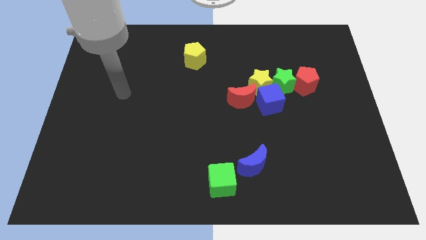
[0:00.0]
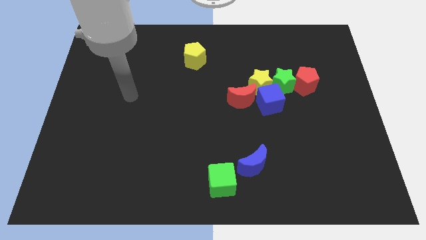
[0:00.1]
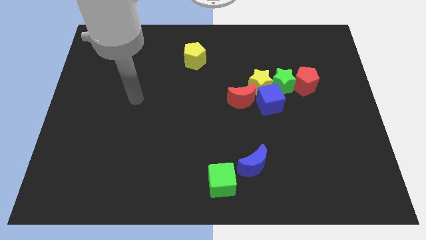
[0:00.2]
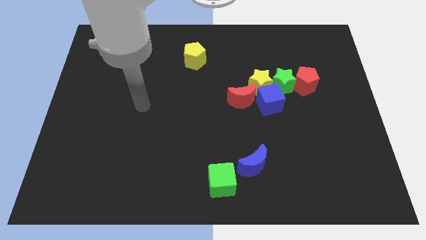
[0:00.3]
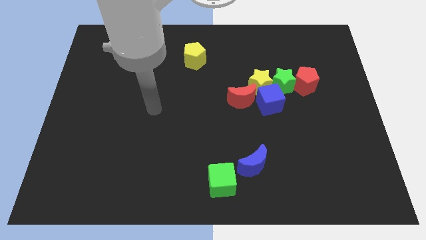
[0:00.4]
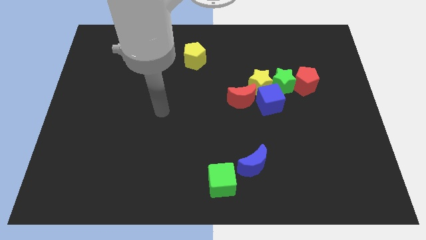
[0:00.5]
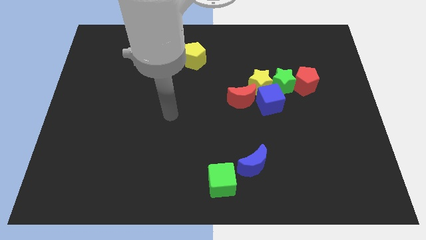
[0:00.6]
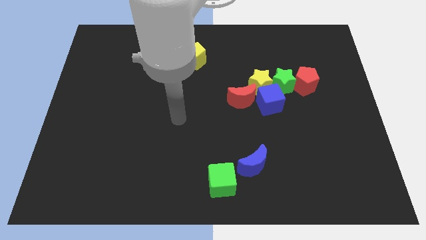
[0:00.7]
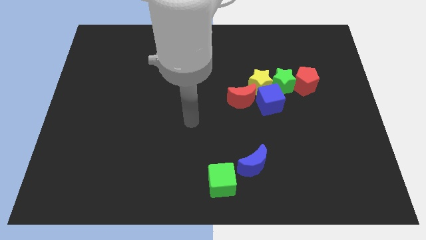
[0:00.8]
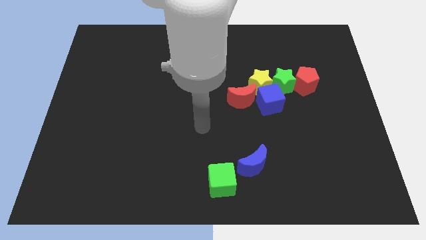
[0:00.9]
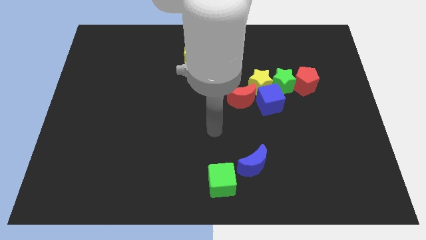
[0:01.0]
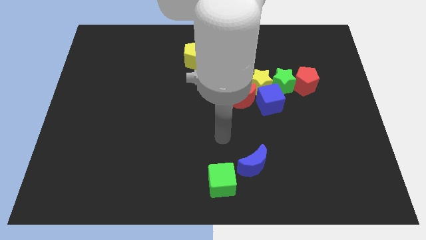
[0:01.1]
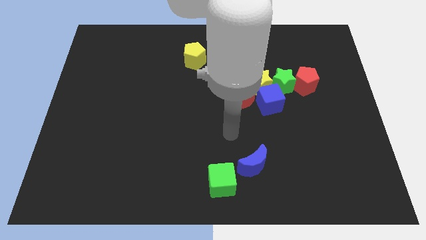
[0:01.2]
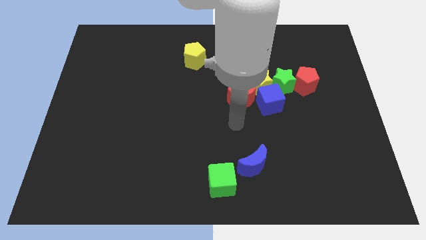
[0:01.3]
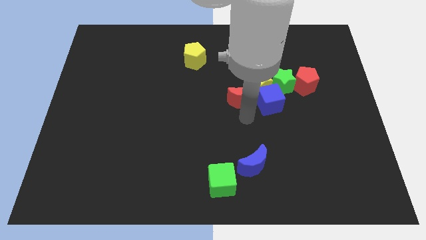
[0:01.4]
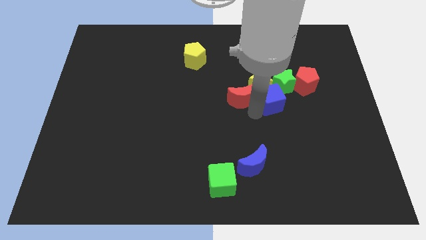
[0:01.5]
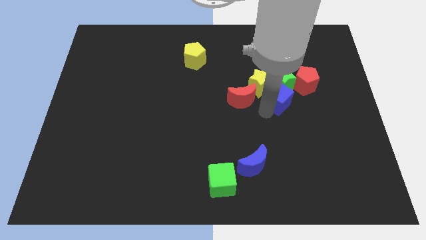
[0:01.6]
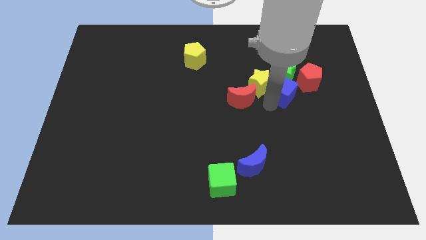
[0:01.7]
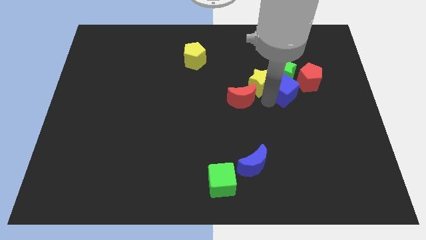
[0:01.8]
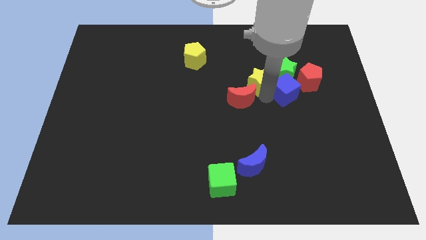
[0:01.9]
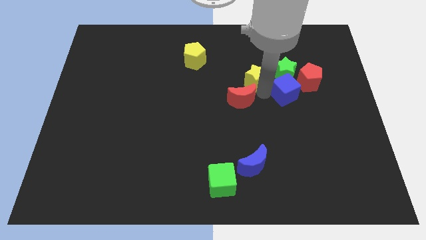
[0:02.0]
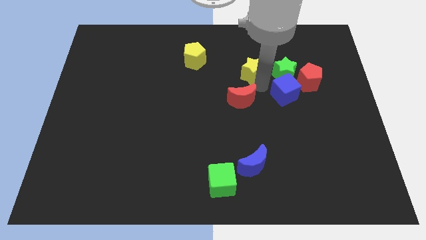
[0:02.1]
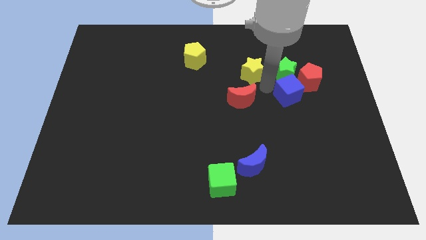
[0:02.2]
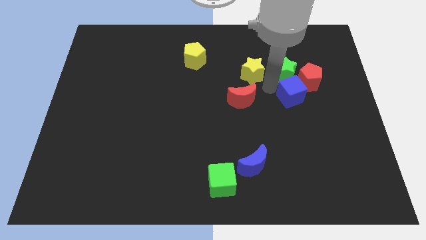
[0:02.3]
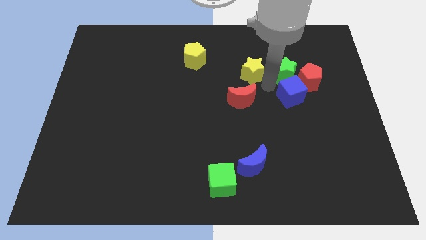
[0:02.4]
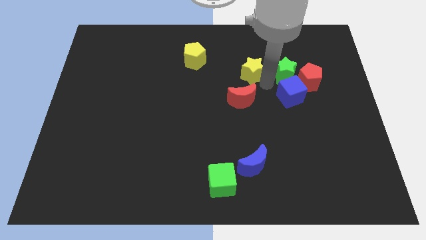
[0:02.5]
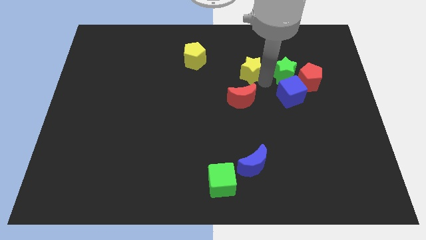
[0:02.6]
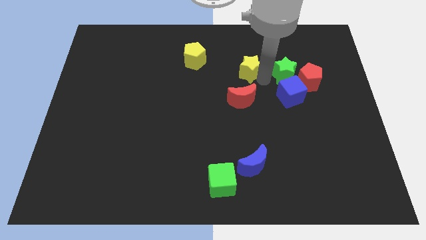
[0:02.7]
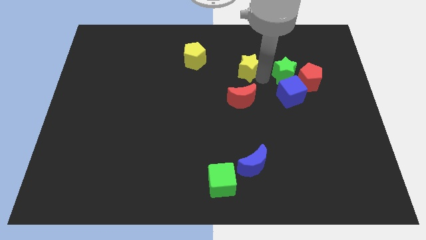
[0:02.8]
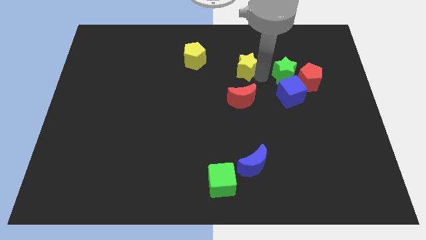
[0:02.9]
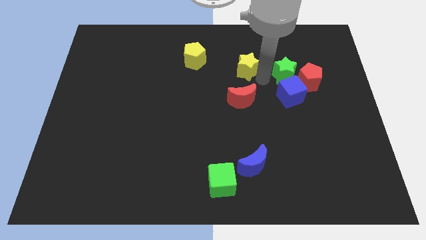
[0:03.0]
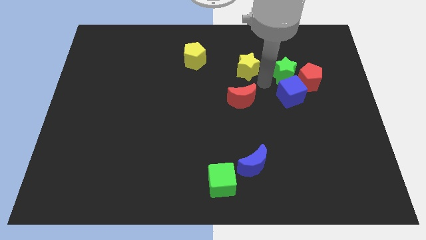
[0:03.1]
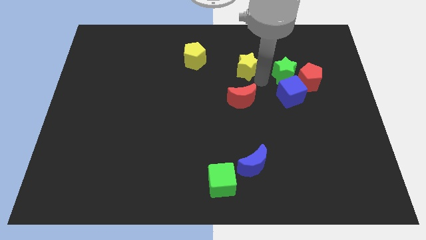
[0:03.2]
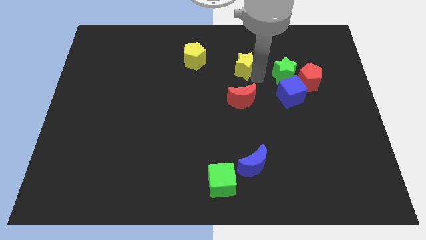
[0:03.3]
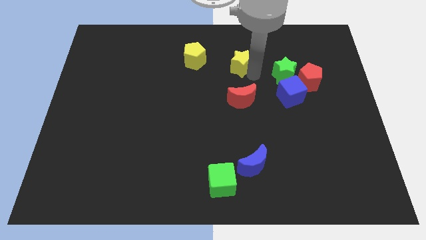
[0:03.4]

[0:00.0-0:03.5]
move the yellow star away from the green star, blue cube, and red moon

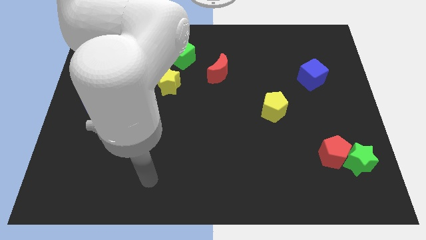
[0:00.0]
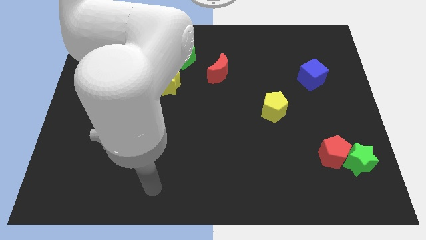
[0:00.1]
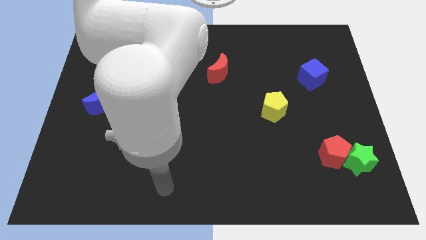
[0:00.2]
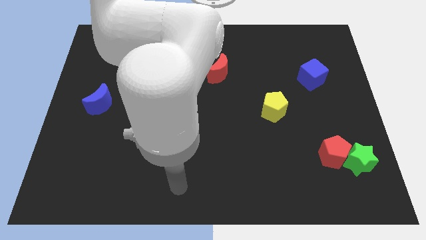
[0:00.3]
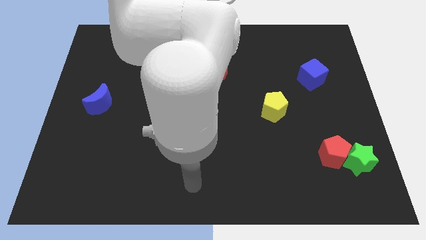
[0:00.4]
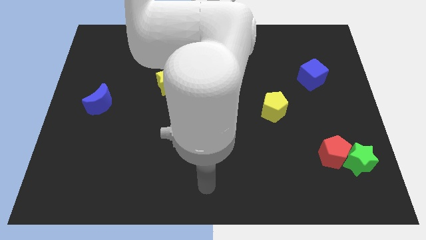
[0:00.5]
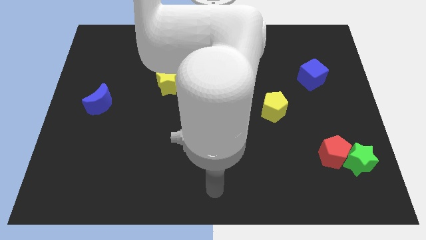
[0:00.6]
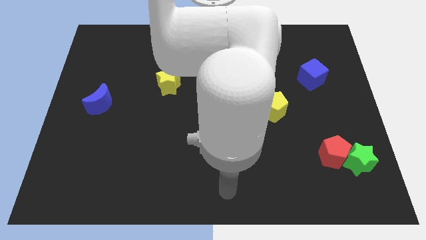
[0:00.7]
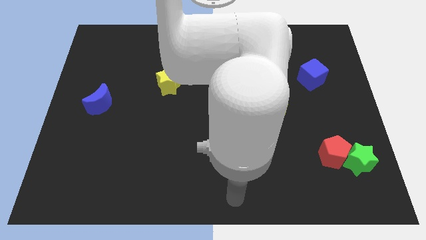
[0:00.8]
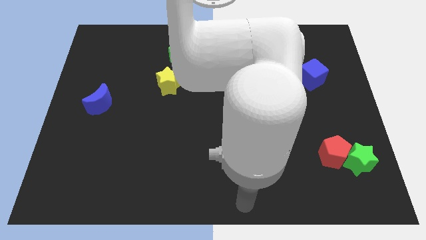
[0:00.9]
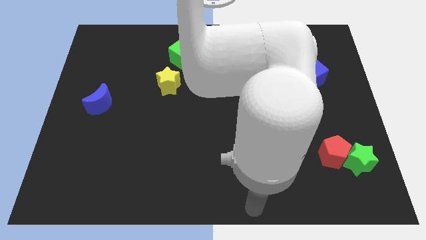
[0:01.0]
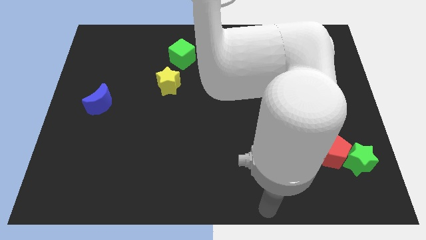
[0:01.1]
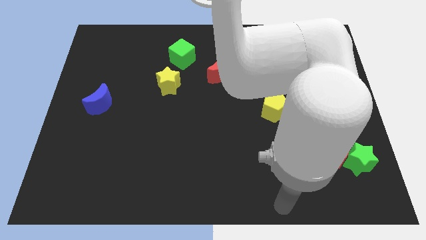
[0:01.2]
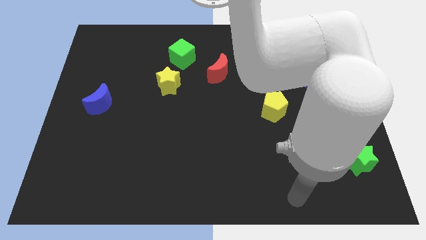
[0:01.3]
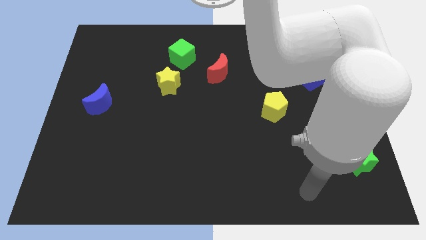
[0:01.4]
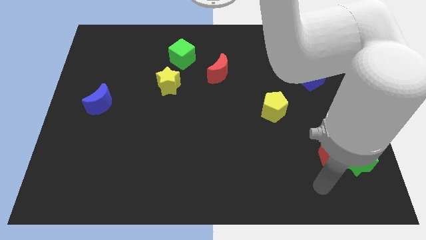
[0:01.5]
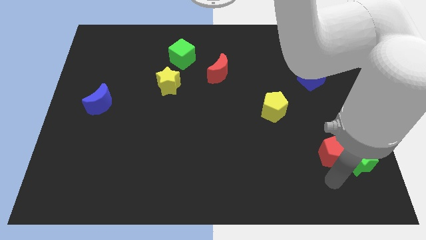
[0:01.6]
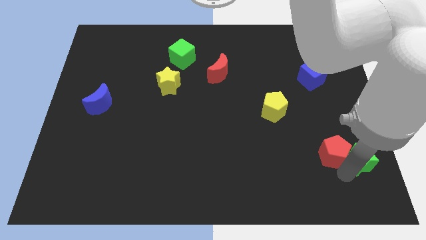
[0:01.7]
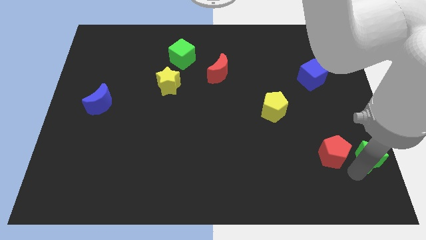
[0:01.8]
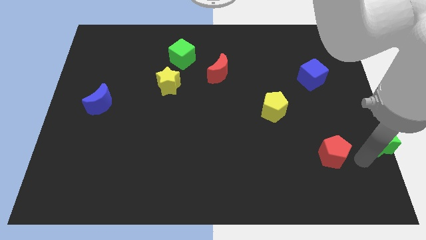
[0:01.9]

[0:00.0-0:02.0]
pull the red pentagon apart from the green star

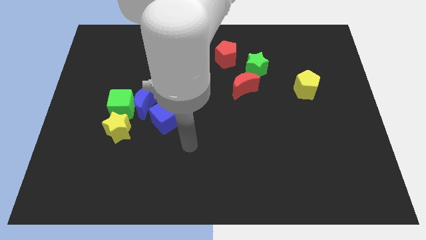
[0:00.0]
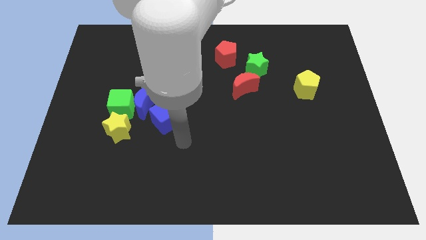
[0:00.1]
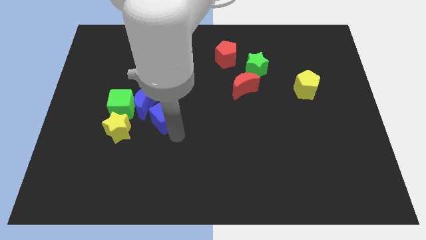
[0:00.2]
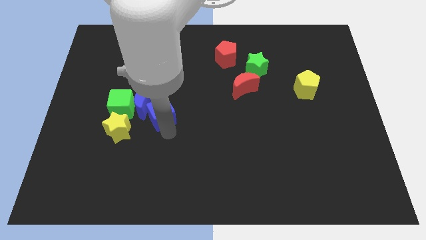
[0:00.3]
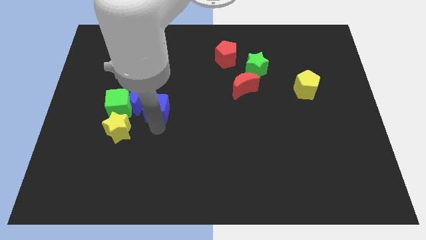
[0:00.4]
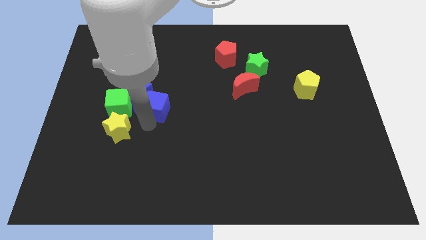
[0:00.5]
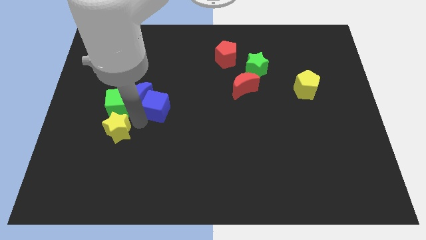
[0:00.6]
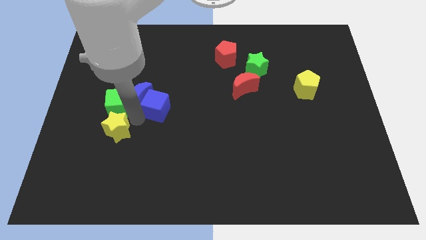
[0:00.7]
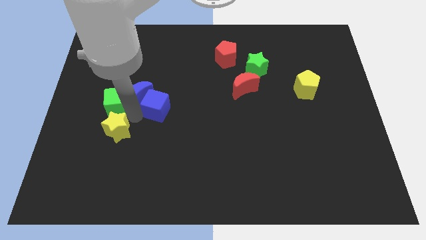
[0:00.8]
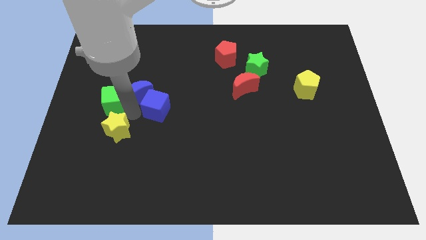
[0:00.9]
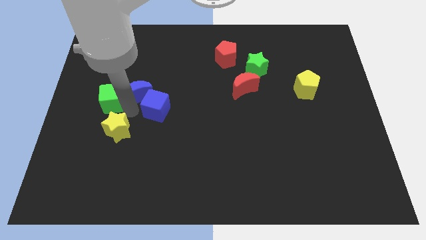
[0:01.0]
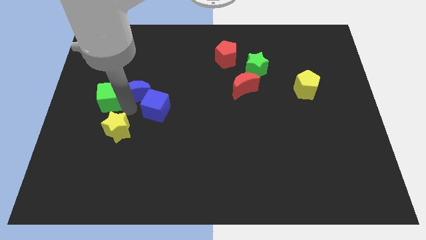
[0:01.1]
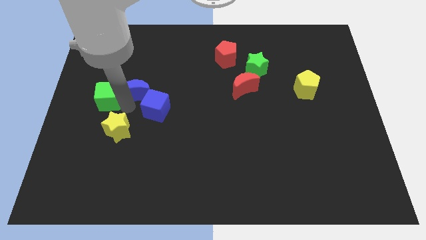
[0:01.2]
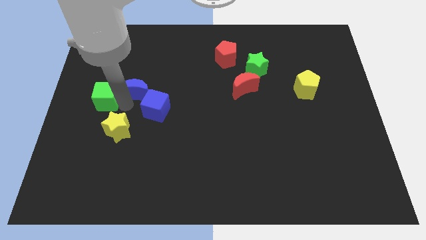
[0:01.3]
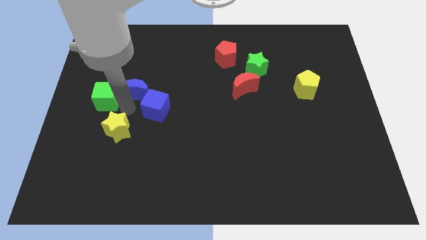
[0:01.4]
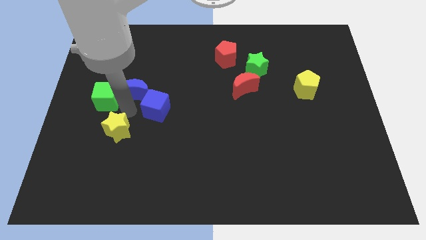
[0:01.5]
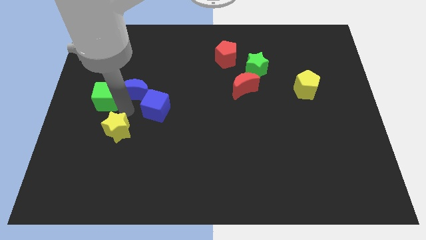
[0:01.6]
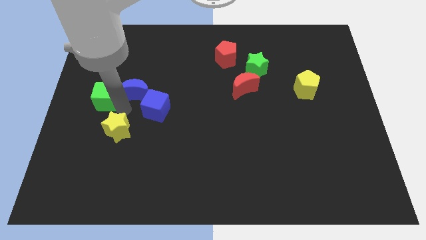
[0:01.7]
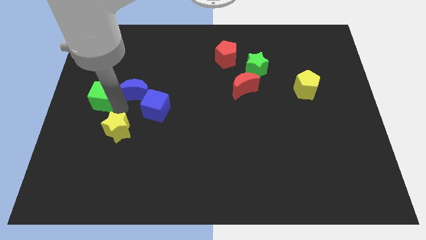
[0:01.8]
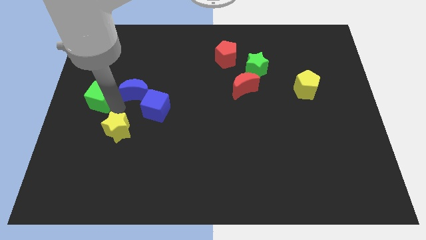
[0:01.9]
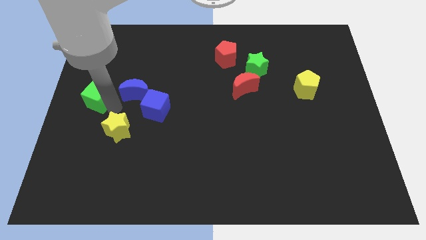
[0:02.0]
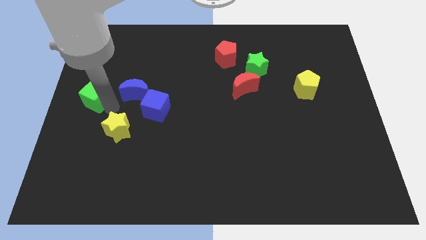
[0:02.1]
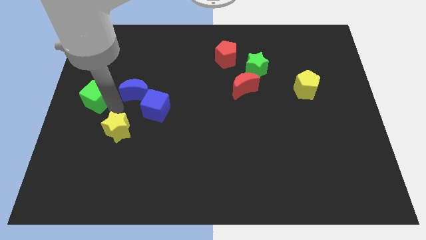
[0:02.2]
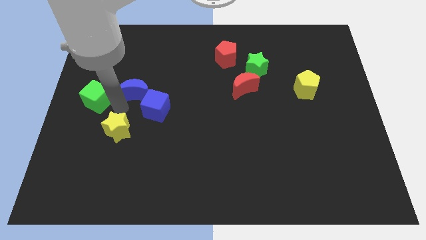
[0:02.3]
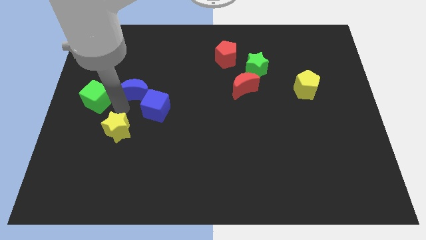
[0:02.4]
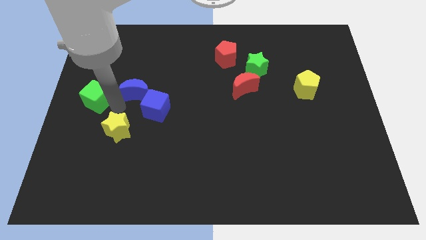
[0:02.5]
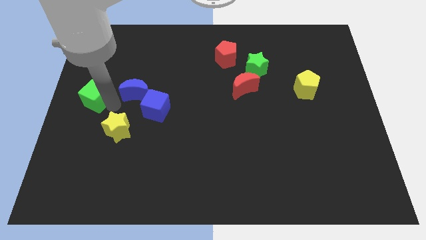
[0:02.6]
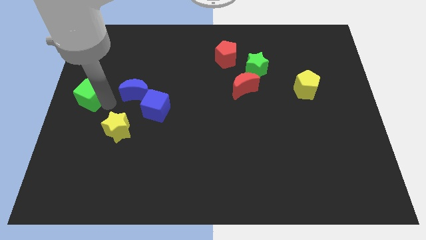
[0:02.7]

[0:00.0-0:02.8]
pull the green cube apart from the blue moon and yellow star

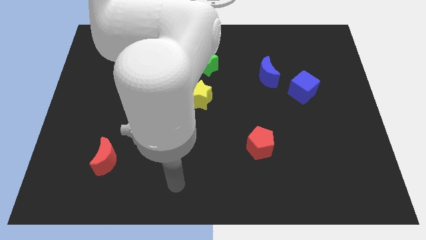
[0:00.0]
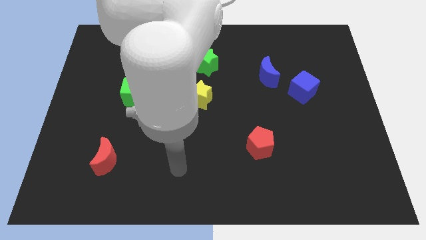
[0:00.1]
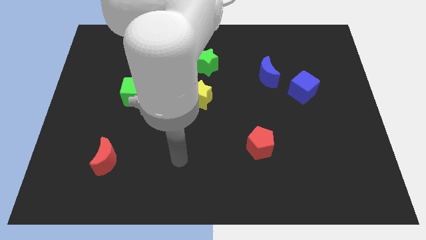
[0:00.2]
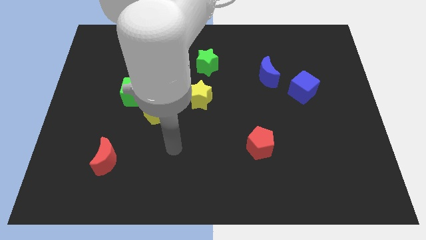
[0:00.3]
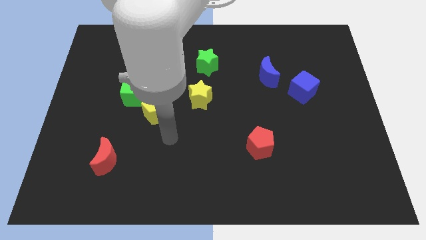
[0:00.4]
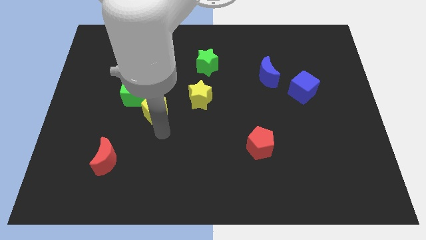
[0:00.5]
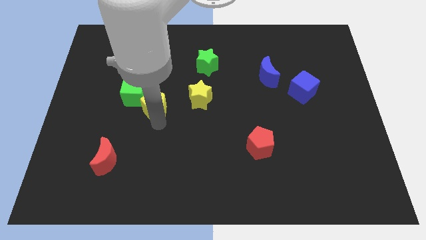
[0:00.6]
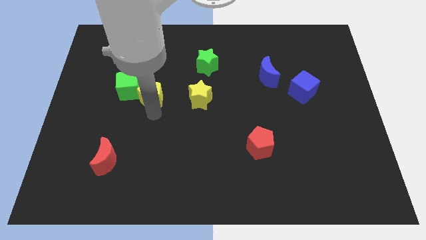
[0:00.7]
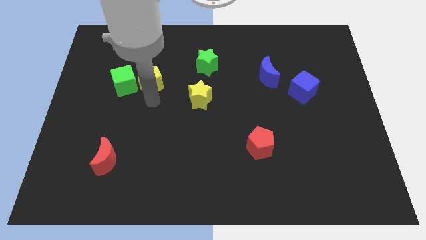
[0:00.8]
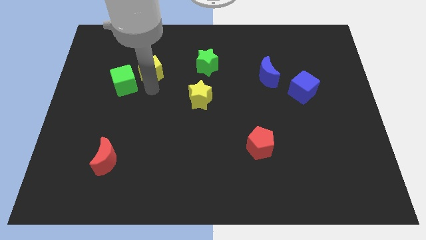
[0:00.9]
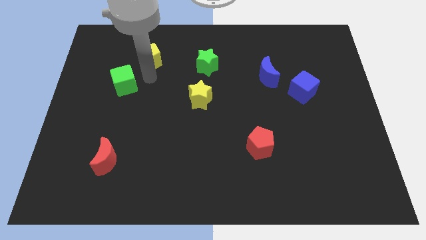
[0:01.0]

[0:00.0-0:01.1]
separate the green cube from the yellow pentagon
